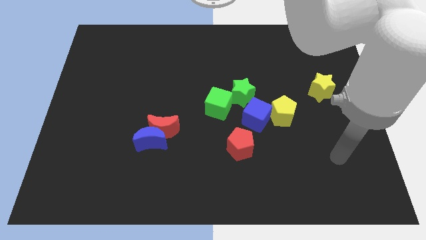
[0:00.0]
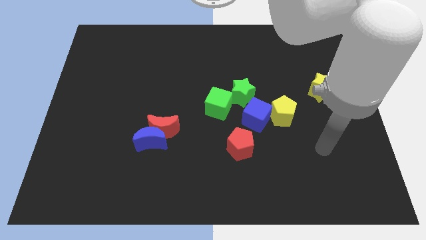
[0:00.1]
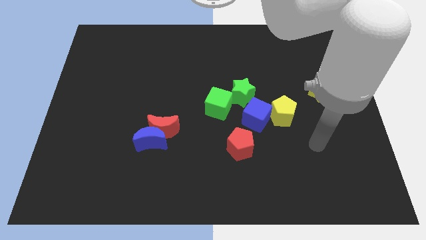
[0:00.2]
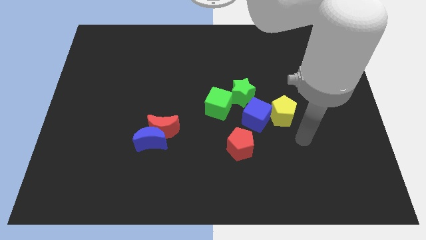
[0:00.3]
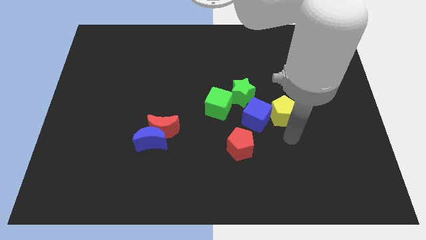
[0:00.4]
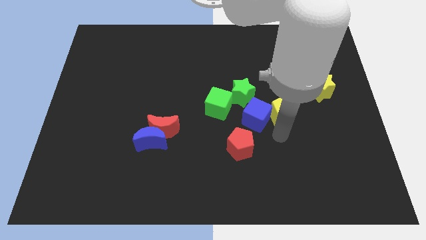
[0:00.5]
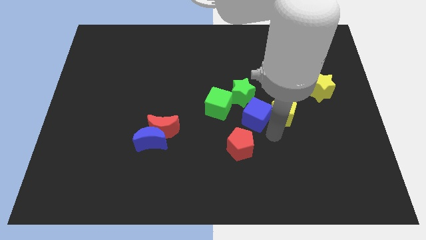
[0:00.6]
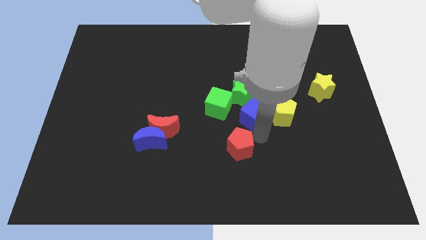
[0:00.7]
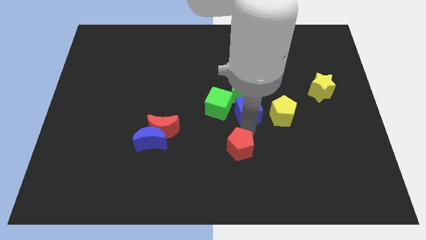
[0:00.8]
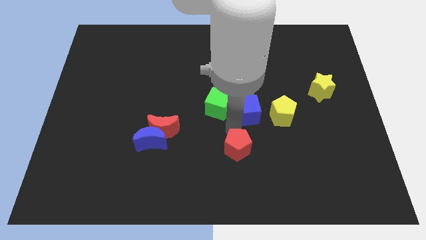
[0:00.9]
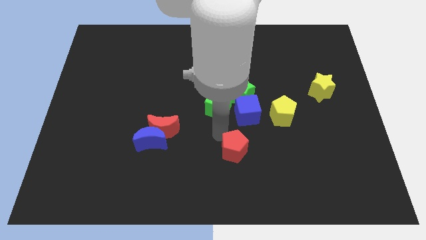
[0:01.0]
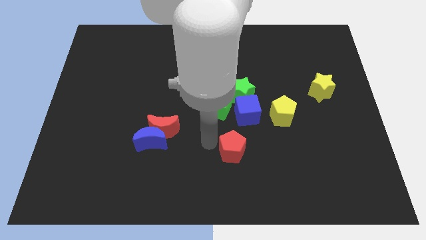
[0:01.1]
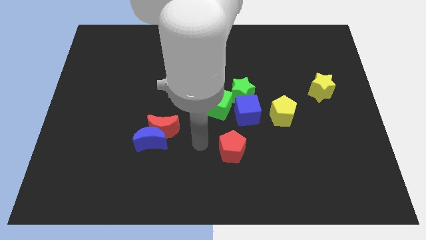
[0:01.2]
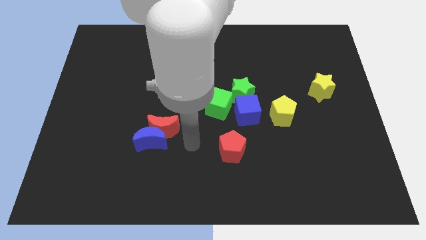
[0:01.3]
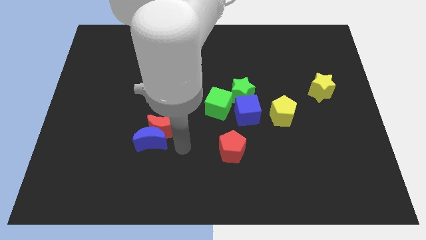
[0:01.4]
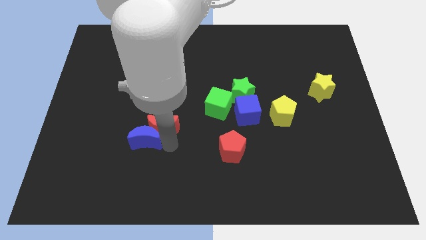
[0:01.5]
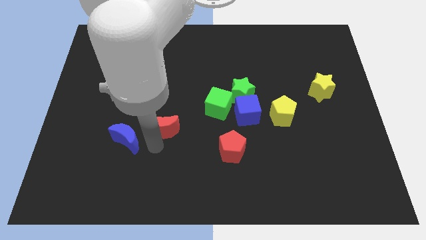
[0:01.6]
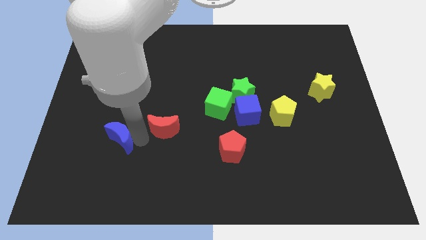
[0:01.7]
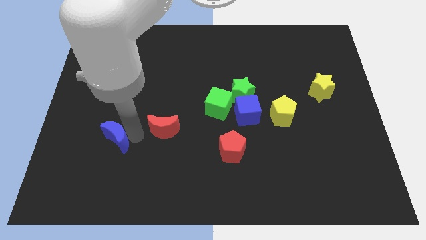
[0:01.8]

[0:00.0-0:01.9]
pull the red moon apart from the blue moon

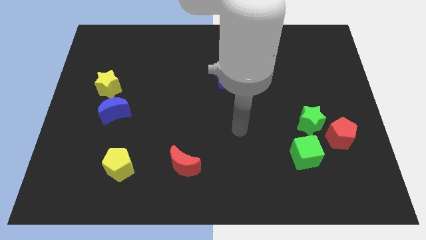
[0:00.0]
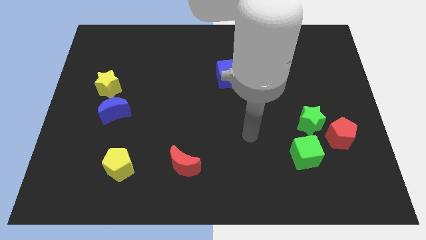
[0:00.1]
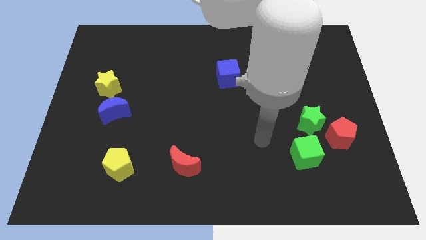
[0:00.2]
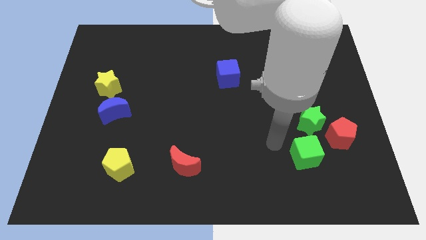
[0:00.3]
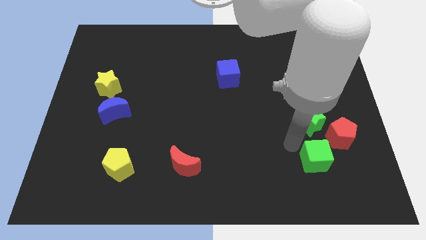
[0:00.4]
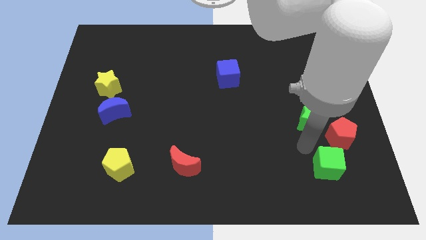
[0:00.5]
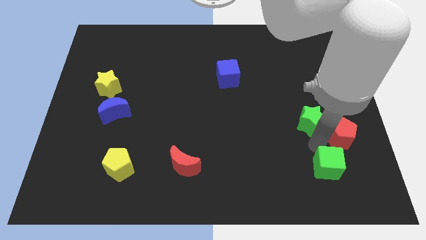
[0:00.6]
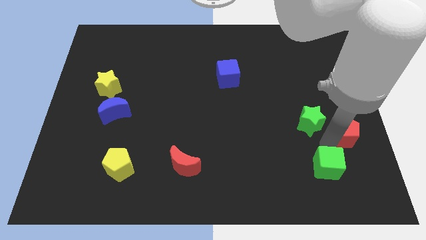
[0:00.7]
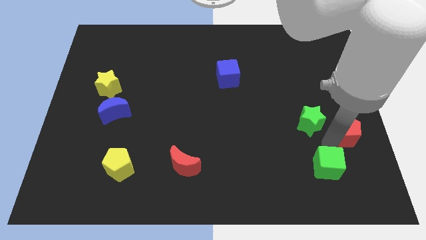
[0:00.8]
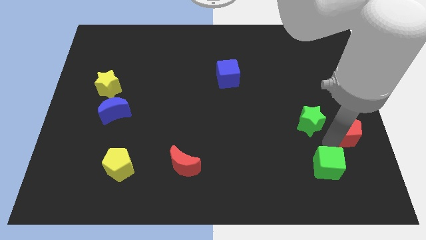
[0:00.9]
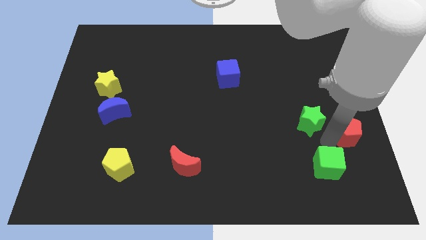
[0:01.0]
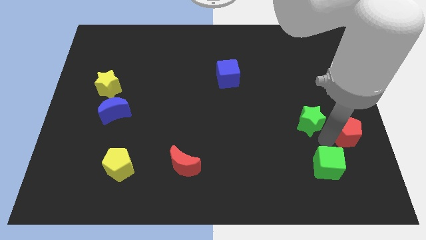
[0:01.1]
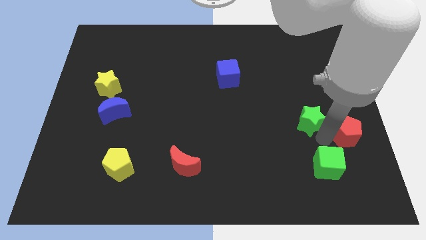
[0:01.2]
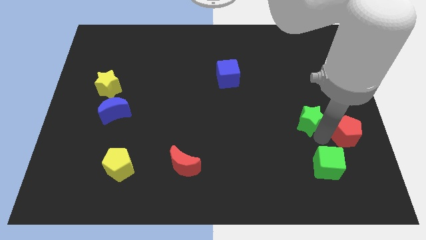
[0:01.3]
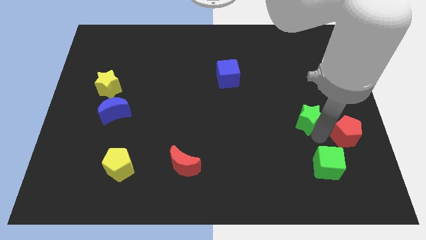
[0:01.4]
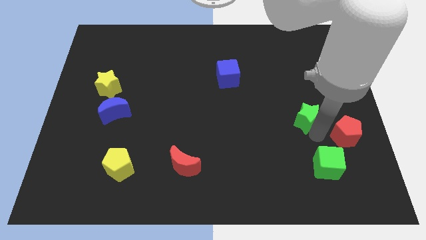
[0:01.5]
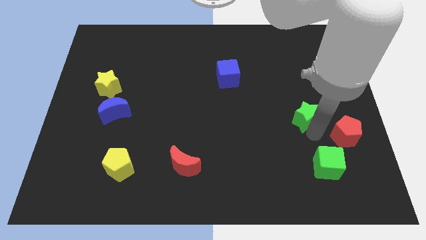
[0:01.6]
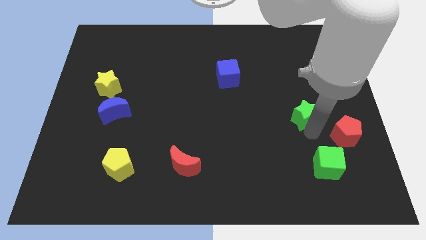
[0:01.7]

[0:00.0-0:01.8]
move the green star away from the red pentagon and green cube

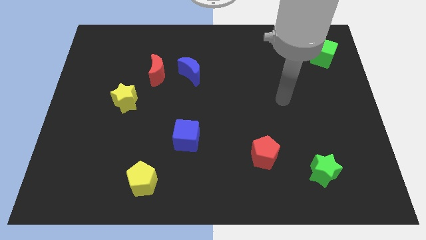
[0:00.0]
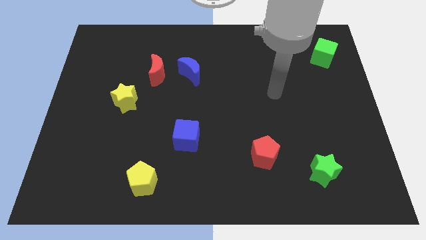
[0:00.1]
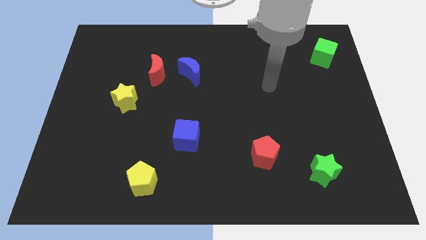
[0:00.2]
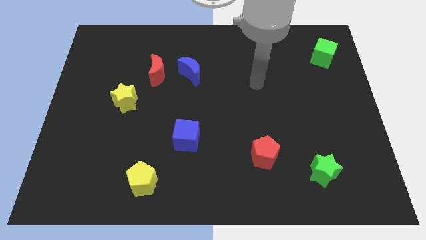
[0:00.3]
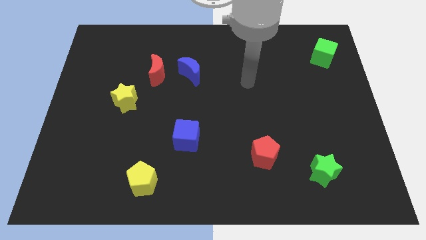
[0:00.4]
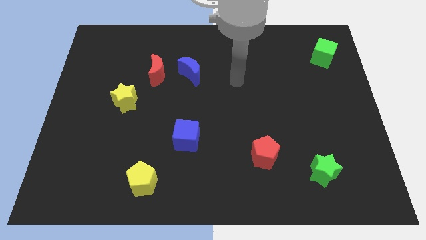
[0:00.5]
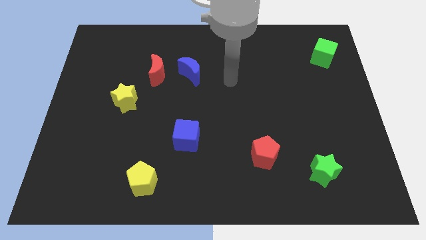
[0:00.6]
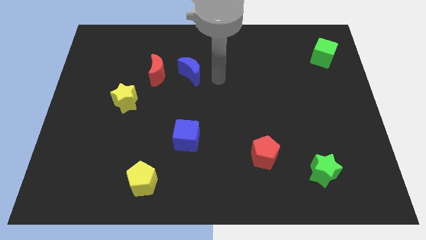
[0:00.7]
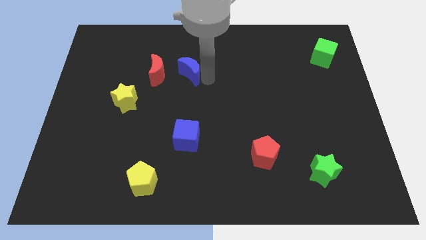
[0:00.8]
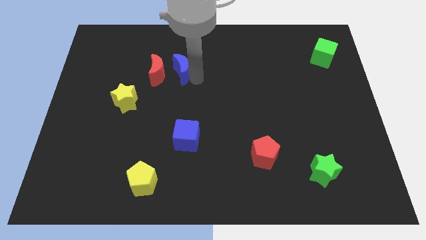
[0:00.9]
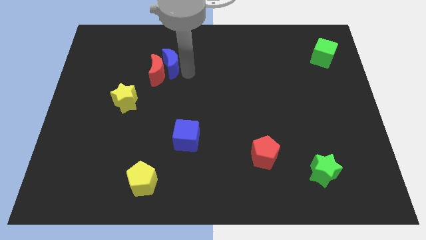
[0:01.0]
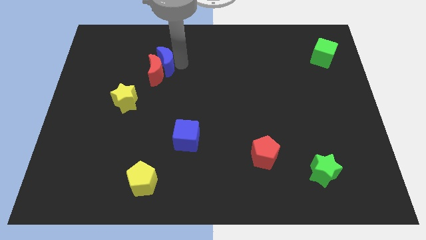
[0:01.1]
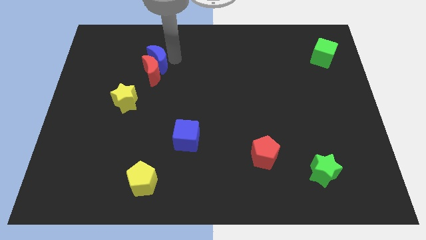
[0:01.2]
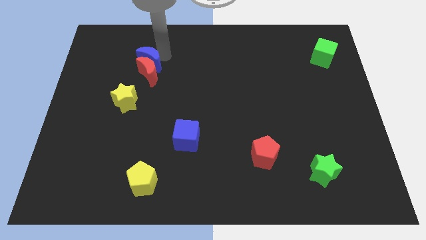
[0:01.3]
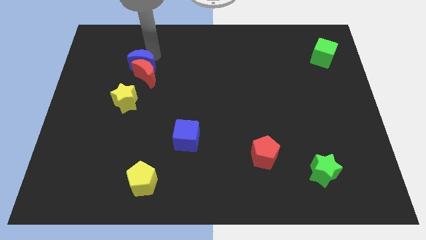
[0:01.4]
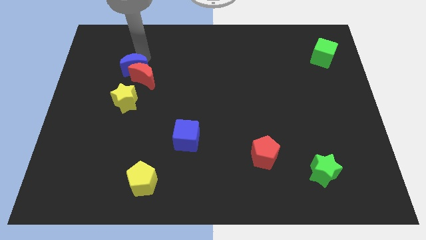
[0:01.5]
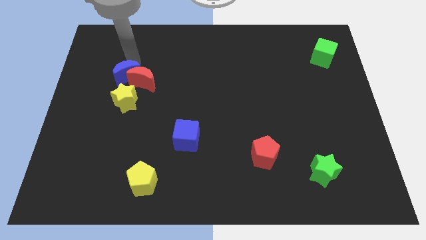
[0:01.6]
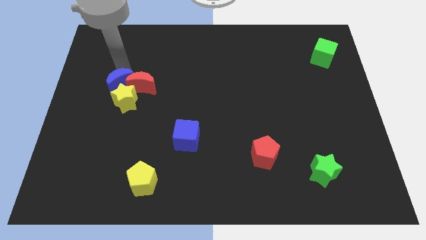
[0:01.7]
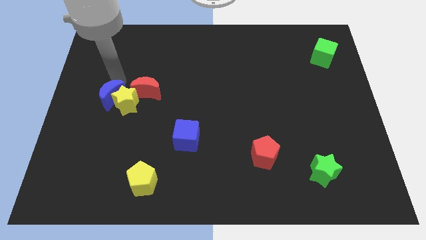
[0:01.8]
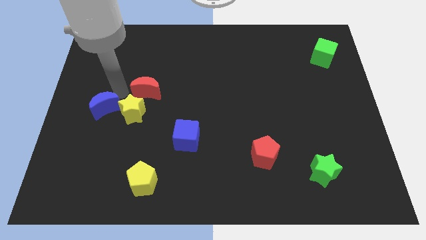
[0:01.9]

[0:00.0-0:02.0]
move the red moon away from the blue moon

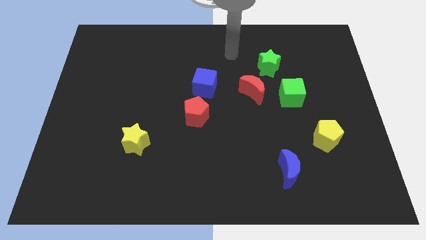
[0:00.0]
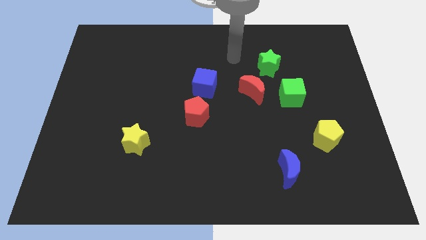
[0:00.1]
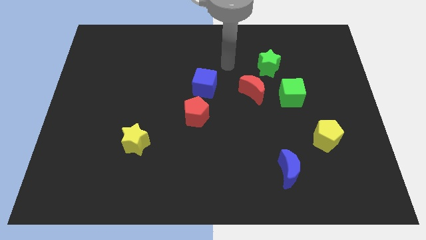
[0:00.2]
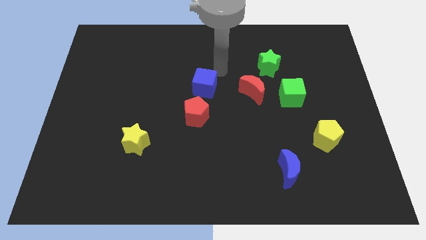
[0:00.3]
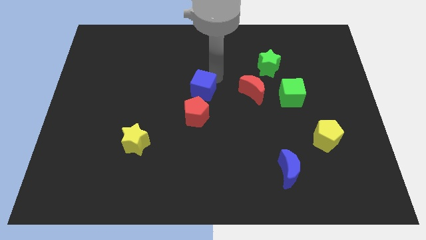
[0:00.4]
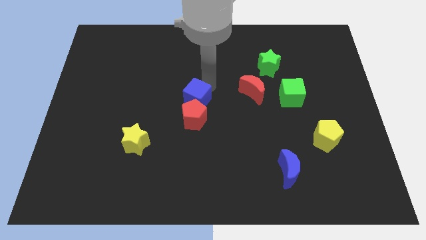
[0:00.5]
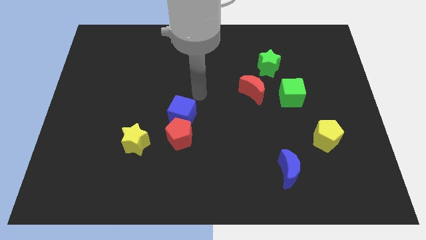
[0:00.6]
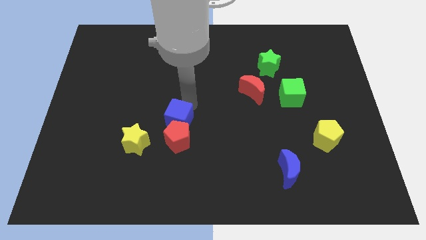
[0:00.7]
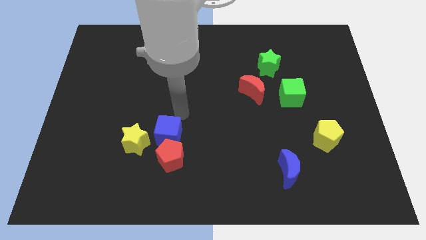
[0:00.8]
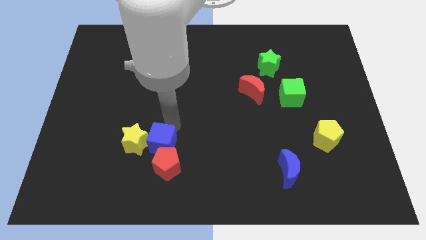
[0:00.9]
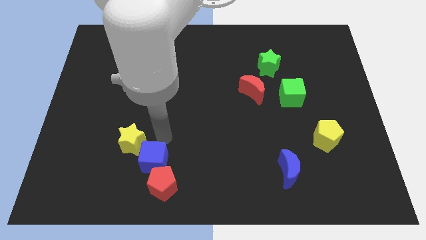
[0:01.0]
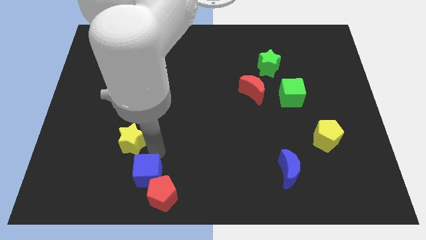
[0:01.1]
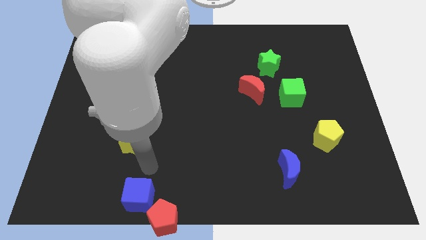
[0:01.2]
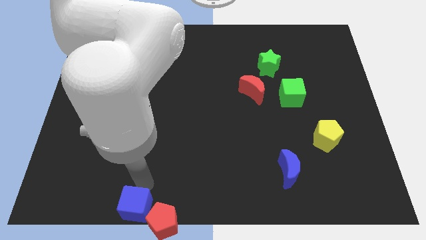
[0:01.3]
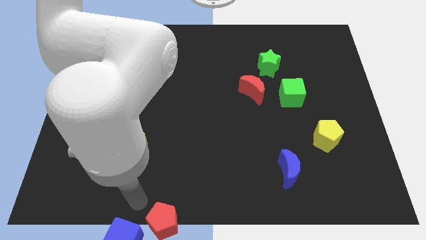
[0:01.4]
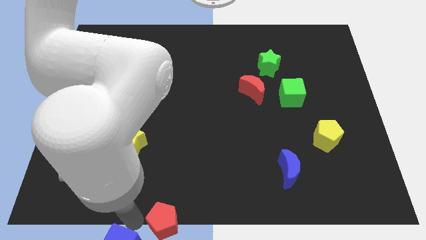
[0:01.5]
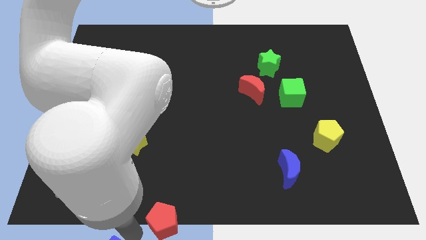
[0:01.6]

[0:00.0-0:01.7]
move the red pentagon away from the blue cube

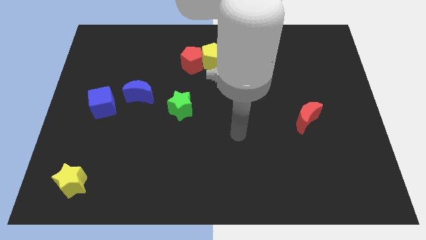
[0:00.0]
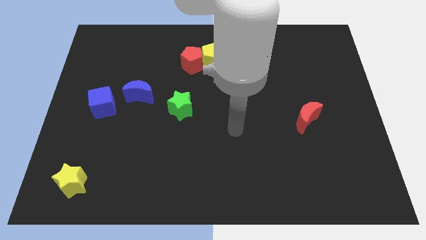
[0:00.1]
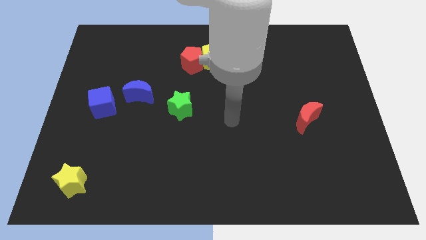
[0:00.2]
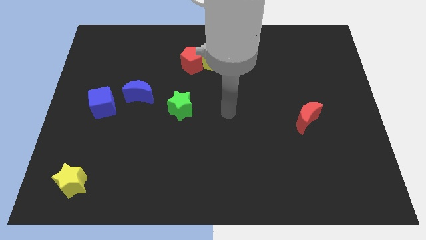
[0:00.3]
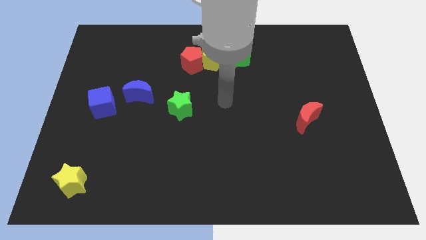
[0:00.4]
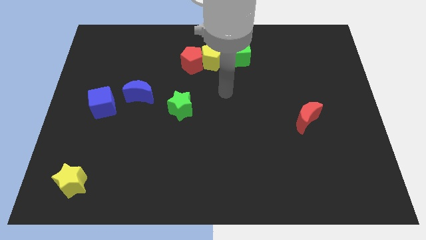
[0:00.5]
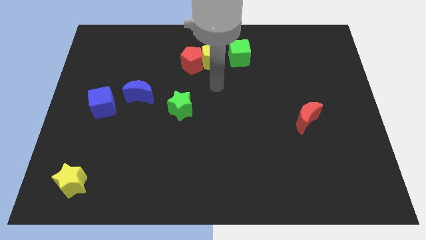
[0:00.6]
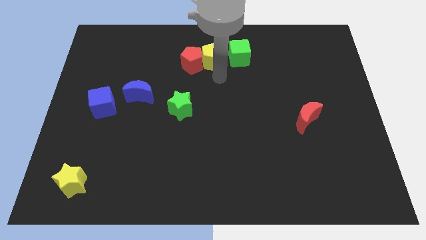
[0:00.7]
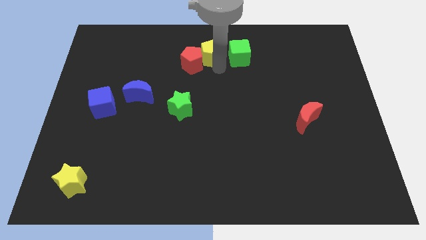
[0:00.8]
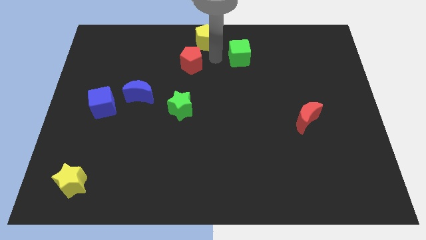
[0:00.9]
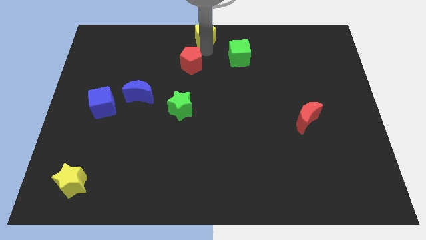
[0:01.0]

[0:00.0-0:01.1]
pull the red pentagon apart from the yellow pentagon

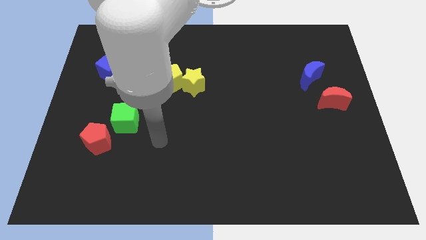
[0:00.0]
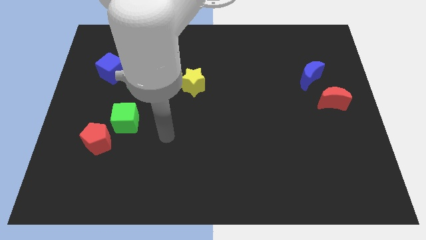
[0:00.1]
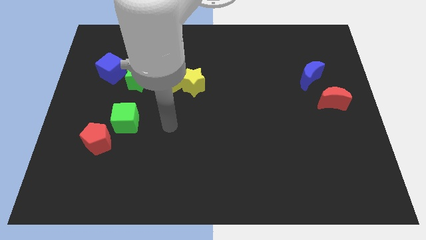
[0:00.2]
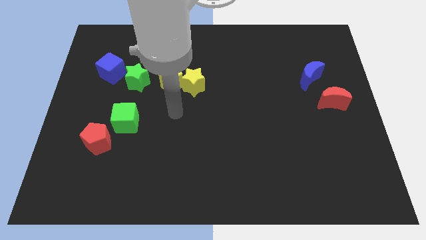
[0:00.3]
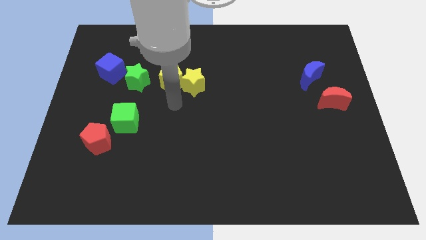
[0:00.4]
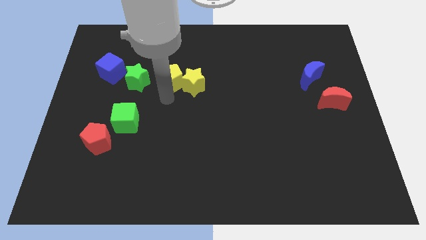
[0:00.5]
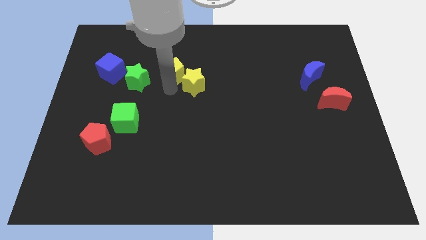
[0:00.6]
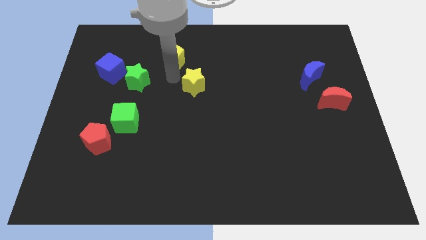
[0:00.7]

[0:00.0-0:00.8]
pull the yellow star apart from the yellow pentagon

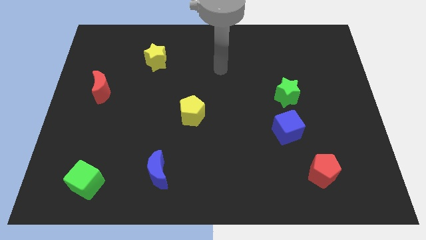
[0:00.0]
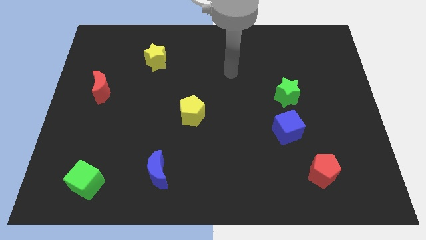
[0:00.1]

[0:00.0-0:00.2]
move the blue cube away from the green star
